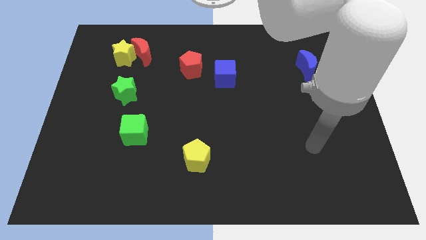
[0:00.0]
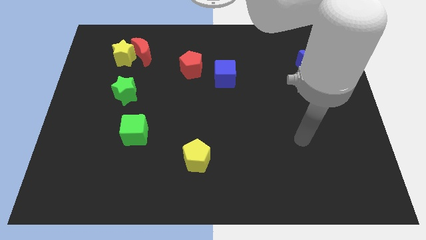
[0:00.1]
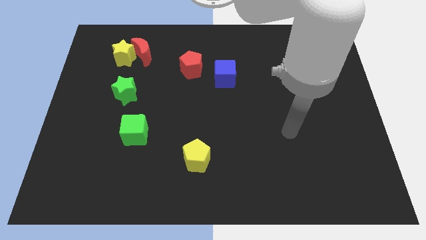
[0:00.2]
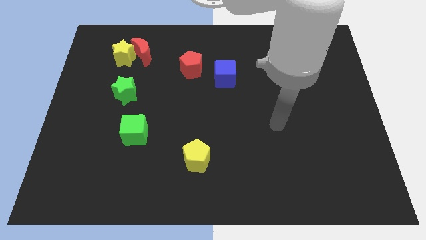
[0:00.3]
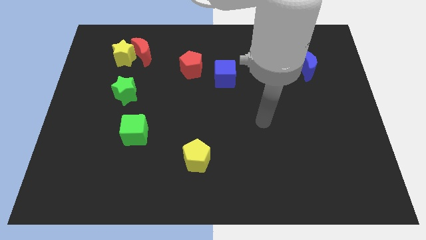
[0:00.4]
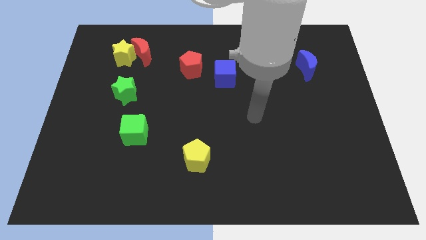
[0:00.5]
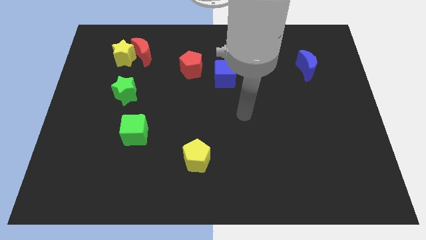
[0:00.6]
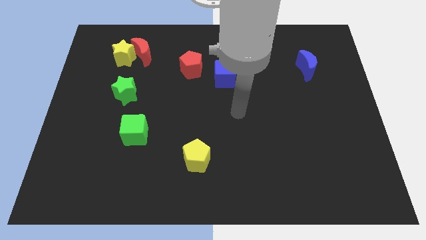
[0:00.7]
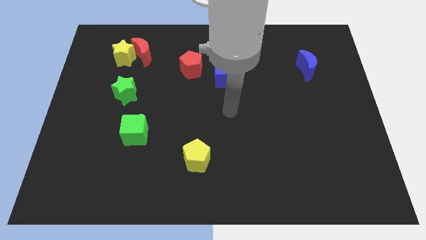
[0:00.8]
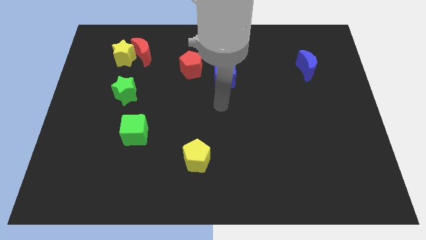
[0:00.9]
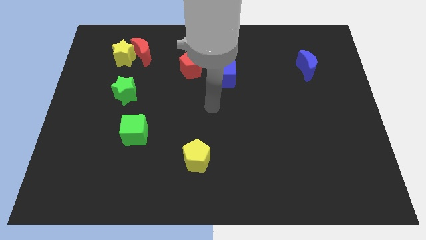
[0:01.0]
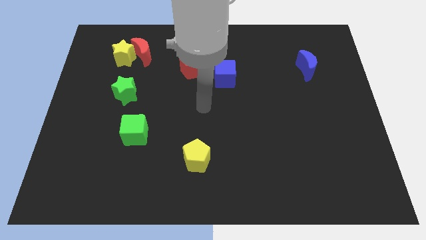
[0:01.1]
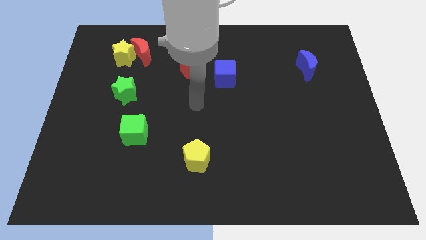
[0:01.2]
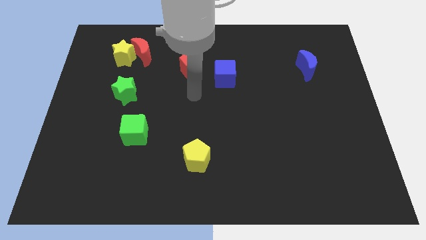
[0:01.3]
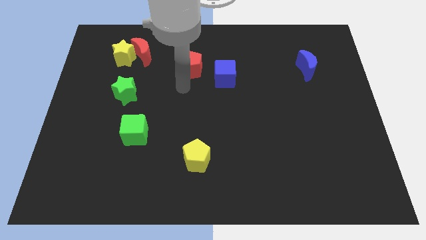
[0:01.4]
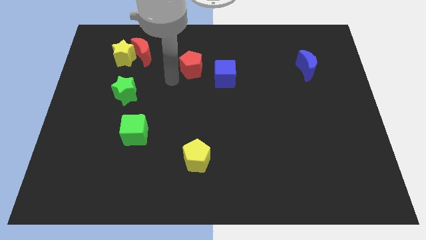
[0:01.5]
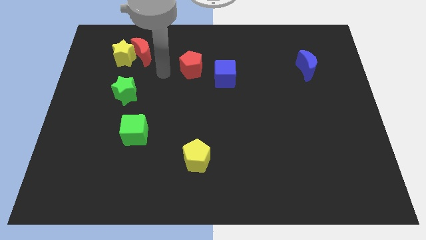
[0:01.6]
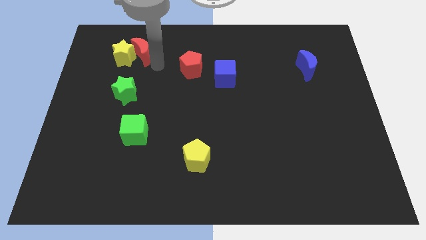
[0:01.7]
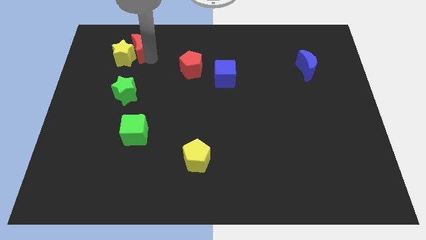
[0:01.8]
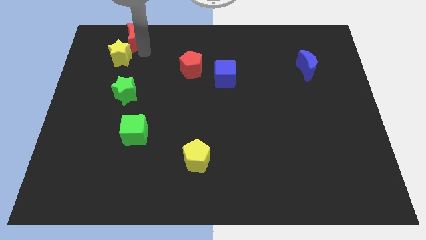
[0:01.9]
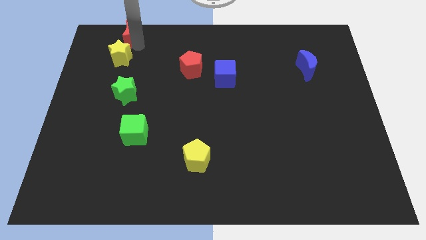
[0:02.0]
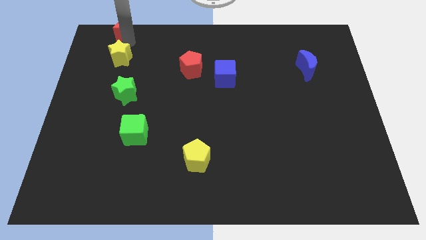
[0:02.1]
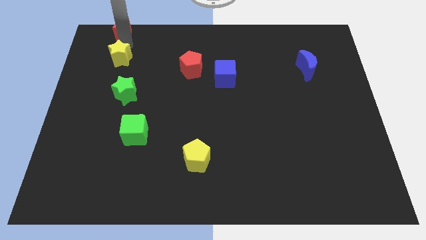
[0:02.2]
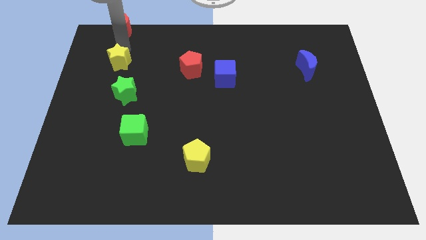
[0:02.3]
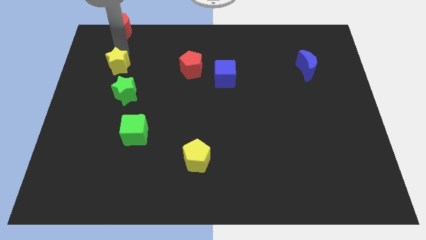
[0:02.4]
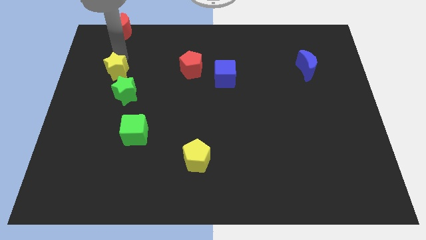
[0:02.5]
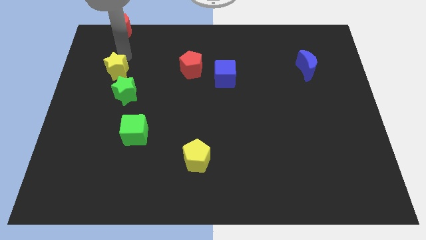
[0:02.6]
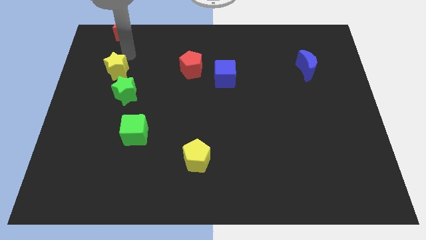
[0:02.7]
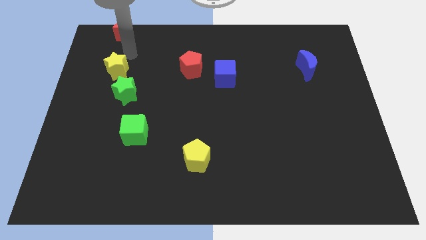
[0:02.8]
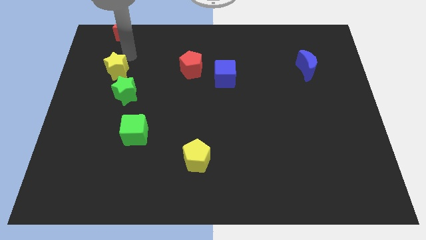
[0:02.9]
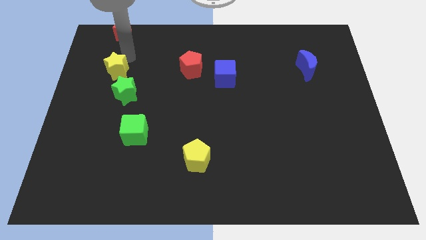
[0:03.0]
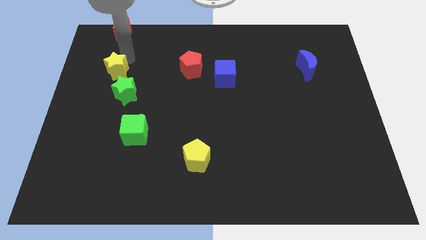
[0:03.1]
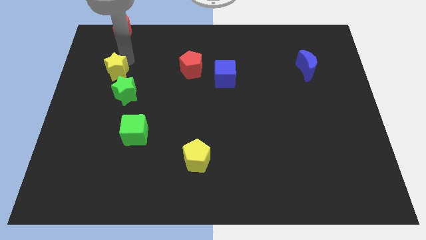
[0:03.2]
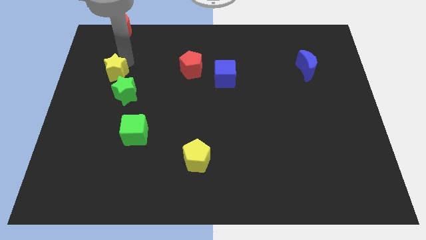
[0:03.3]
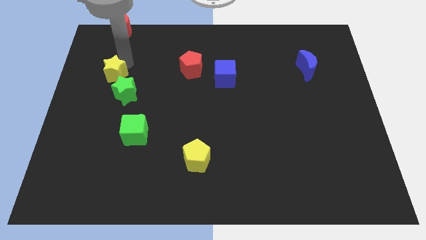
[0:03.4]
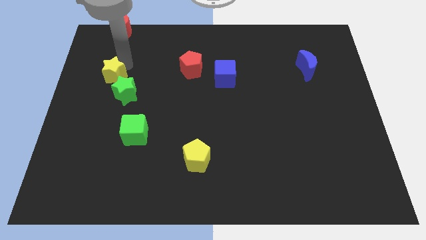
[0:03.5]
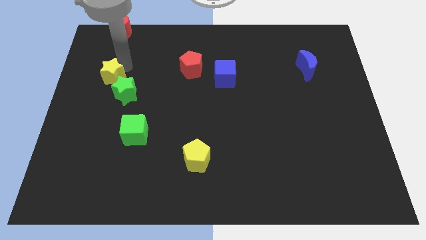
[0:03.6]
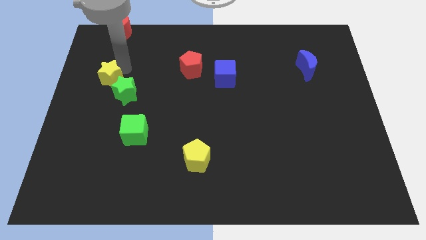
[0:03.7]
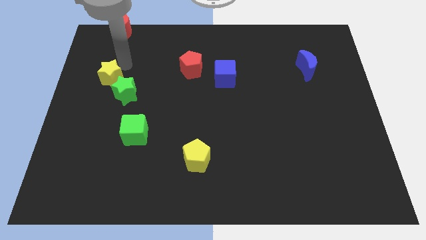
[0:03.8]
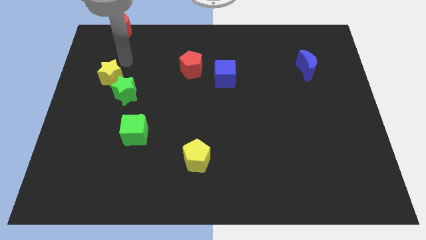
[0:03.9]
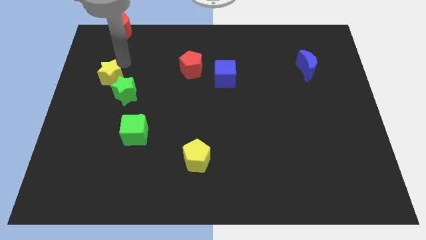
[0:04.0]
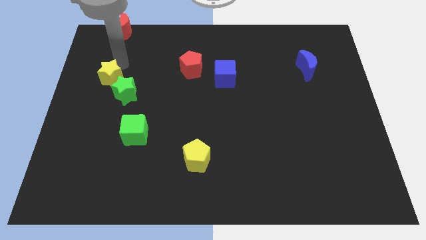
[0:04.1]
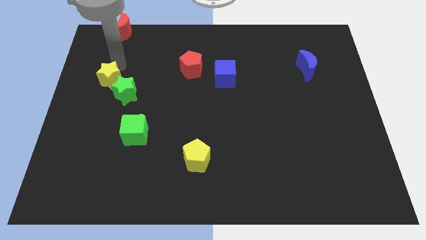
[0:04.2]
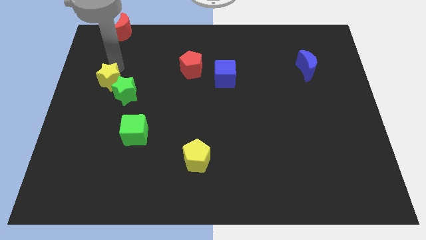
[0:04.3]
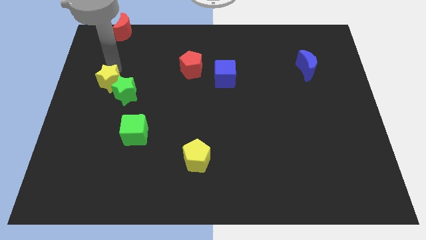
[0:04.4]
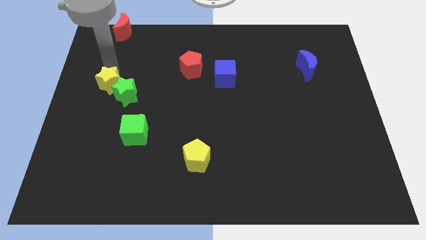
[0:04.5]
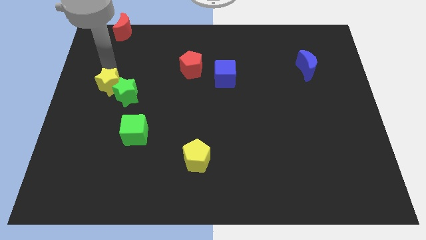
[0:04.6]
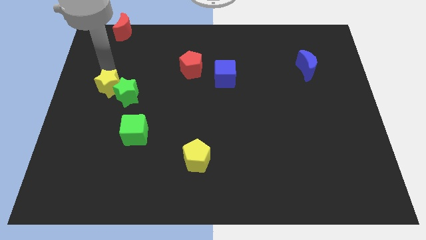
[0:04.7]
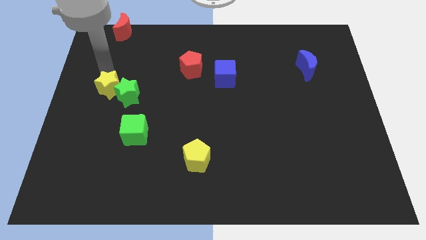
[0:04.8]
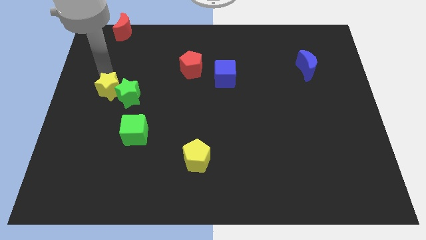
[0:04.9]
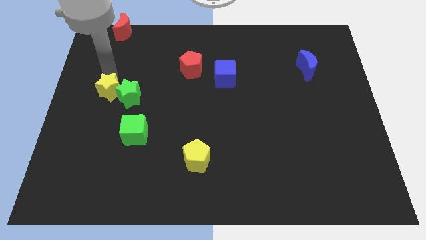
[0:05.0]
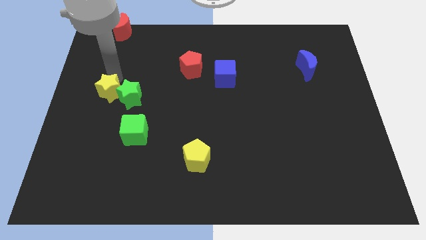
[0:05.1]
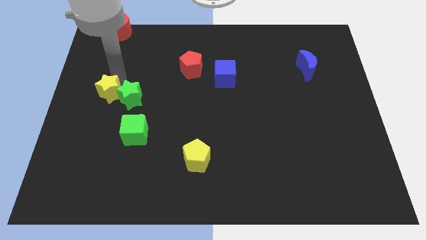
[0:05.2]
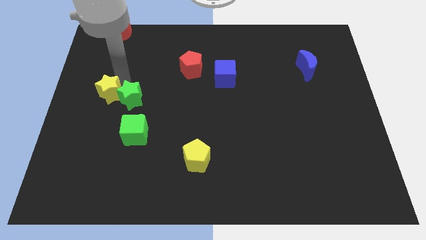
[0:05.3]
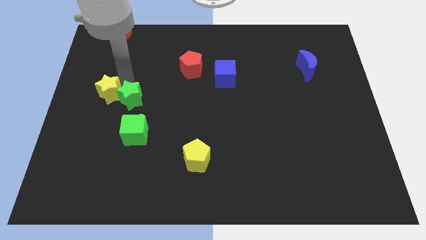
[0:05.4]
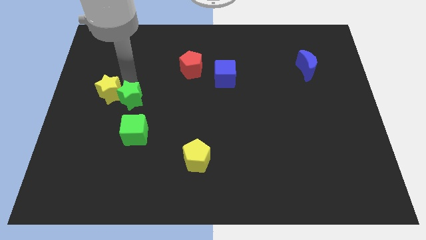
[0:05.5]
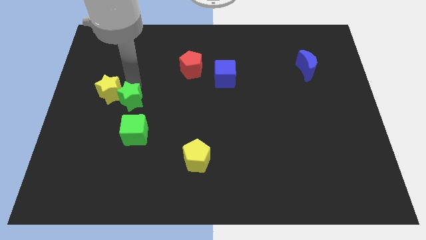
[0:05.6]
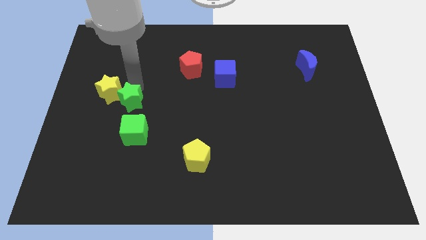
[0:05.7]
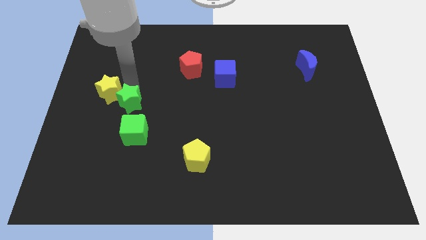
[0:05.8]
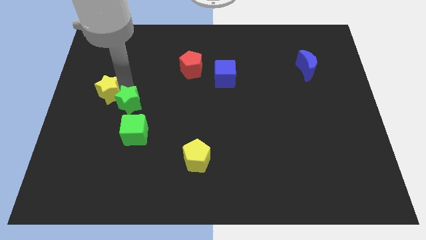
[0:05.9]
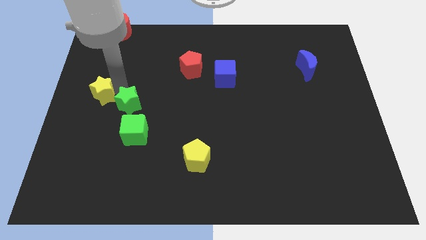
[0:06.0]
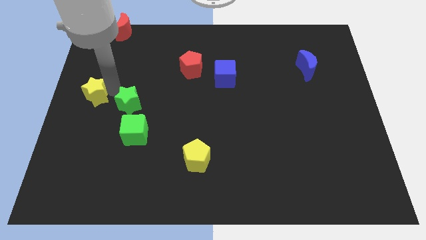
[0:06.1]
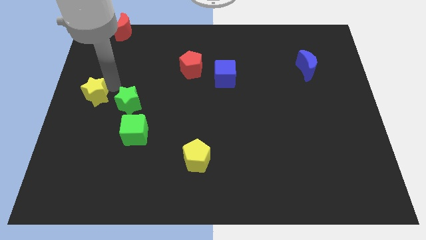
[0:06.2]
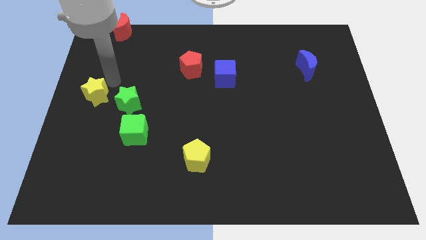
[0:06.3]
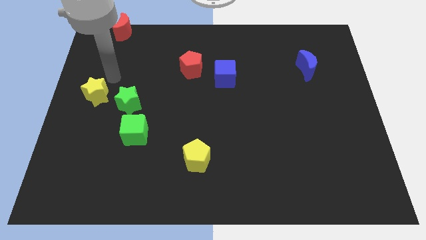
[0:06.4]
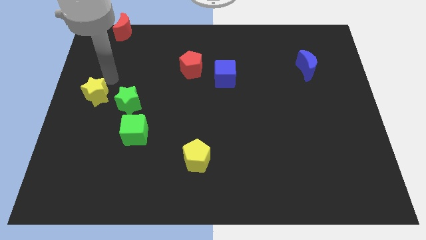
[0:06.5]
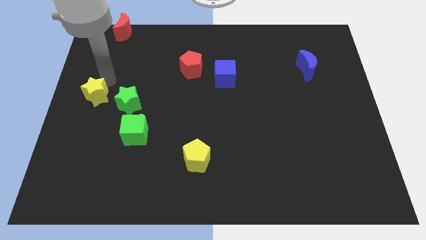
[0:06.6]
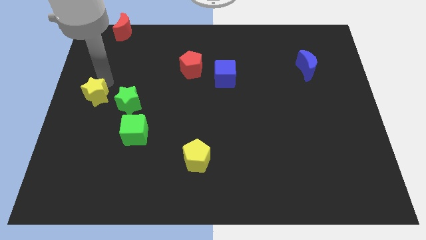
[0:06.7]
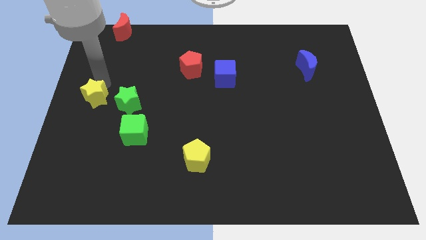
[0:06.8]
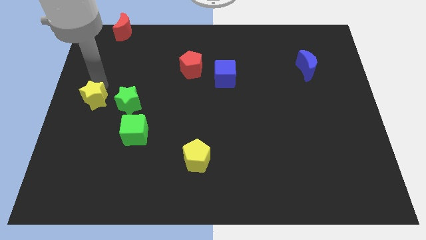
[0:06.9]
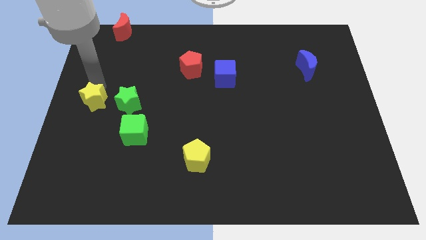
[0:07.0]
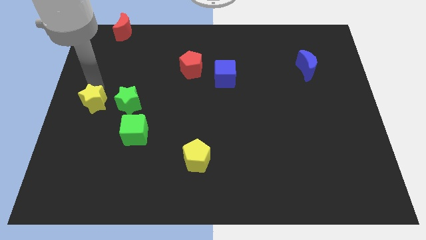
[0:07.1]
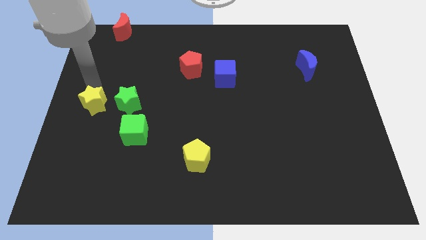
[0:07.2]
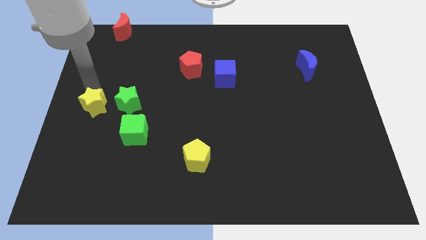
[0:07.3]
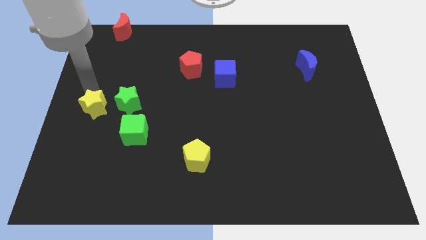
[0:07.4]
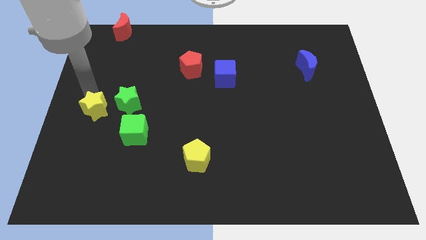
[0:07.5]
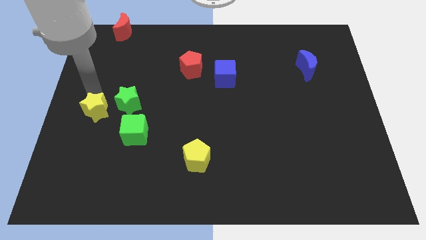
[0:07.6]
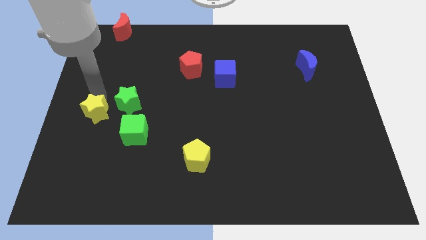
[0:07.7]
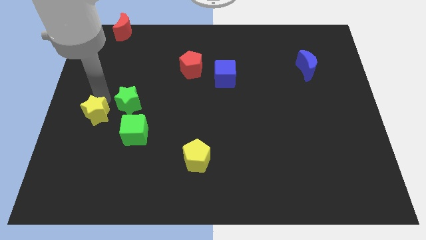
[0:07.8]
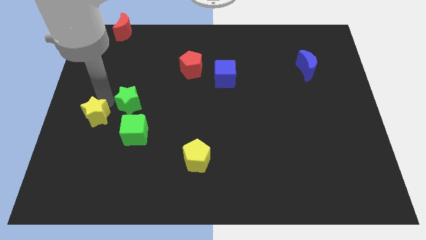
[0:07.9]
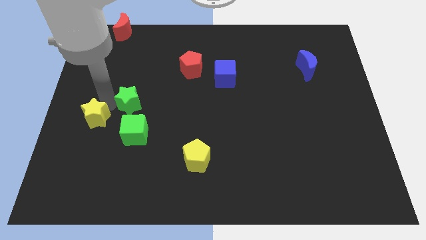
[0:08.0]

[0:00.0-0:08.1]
slide the yellow star just left of the green cube
